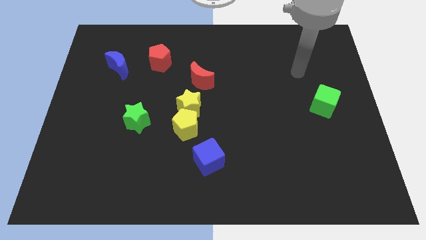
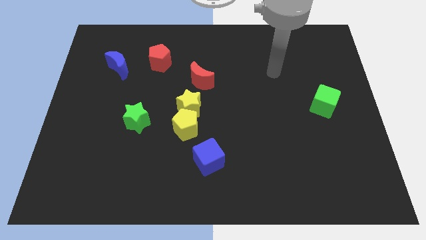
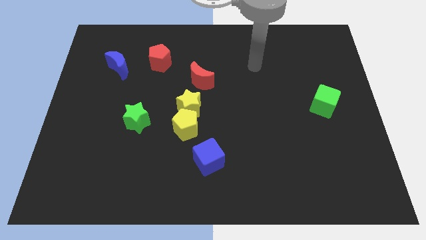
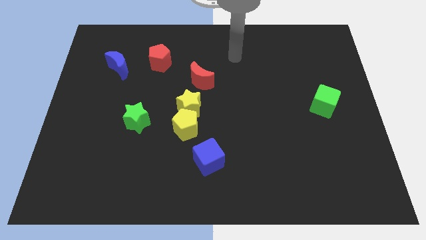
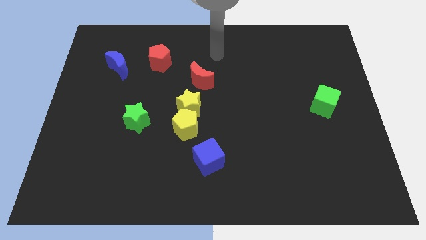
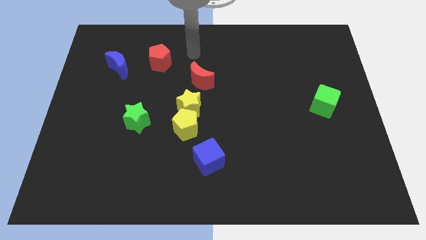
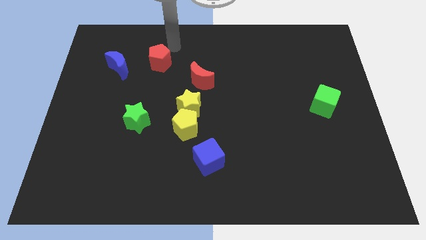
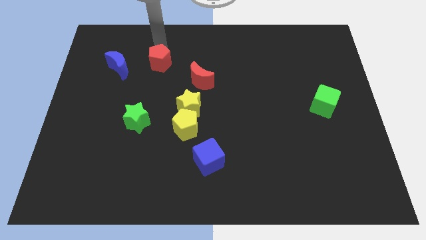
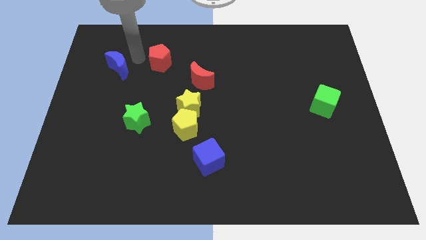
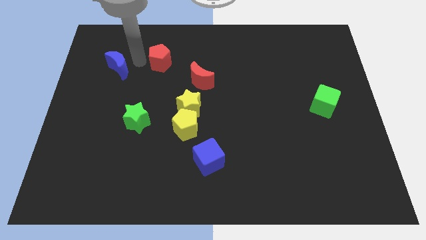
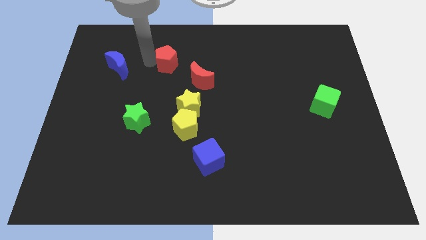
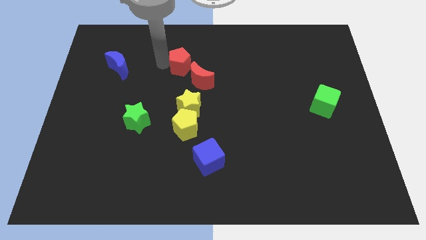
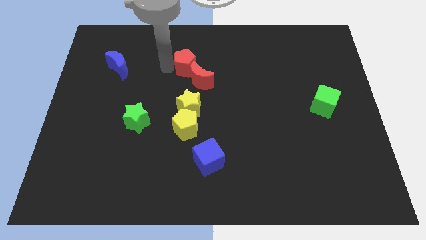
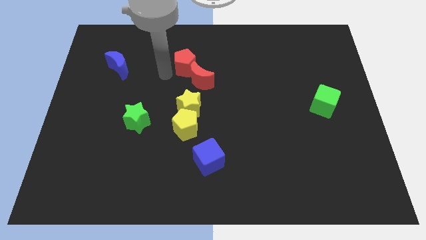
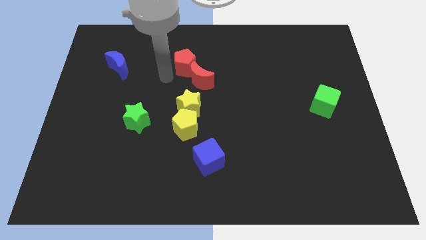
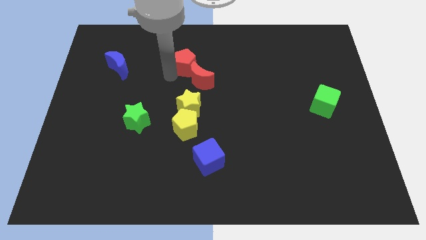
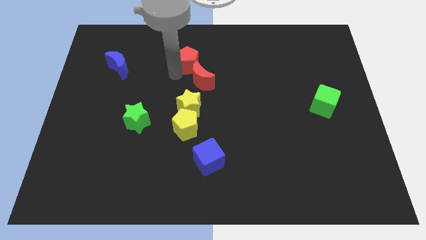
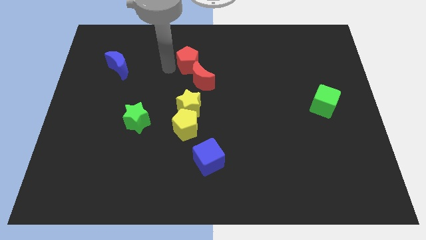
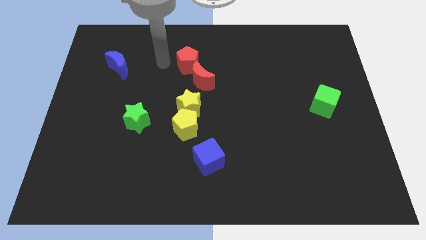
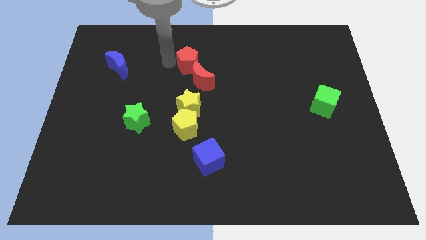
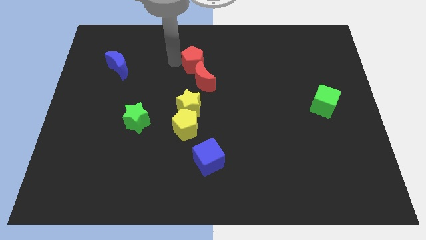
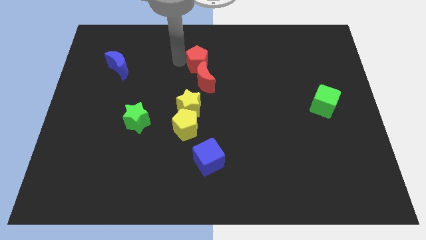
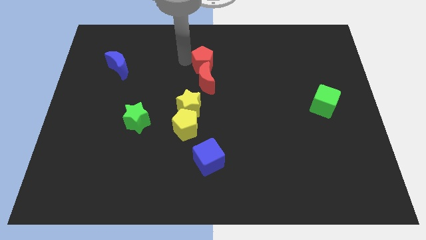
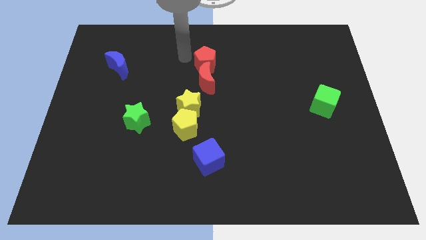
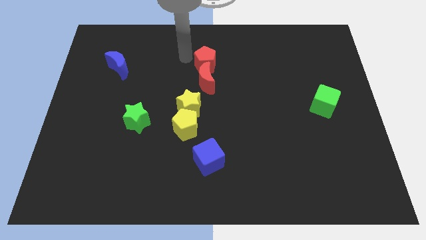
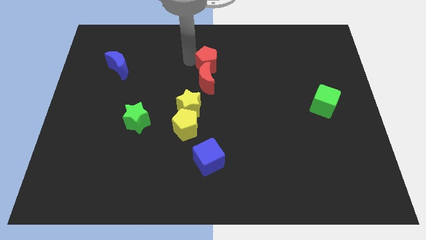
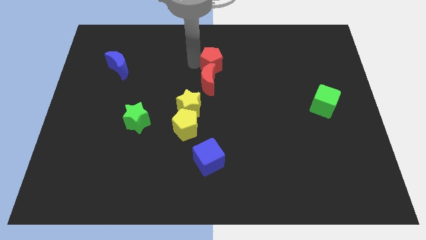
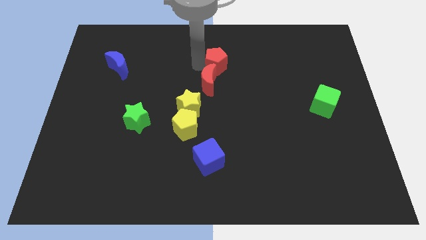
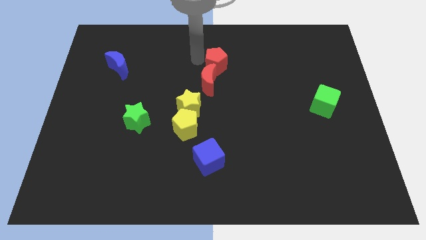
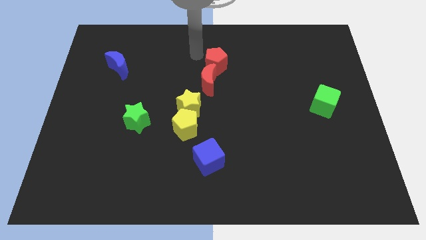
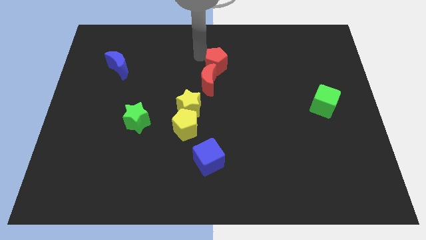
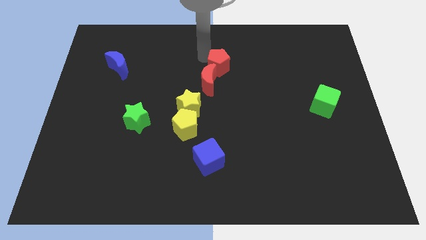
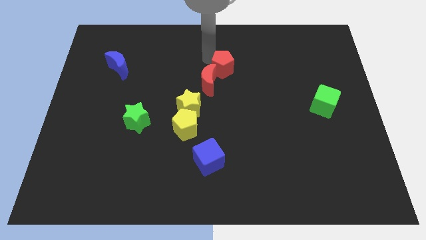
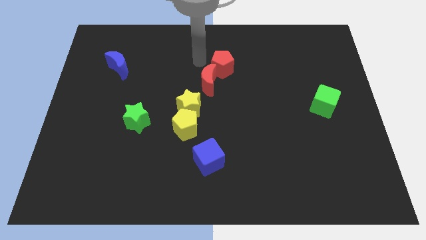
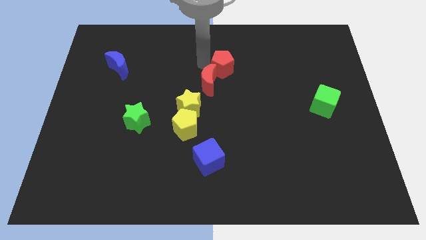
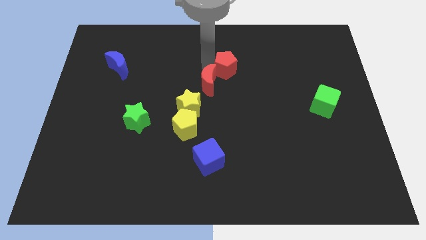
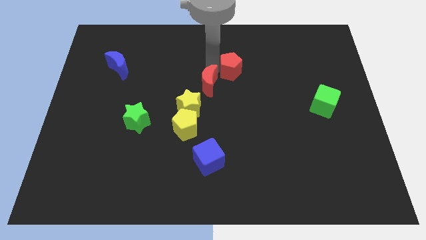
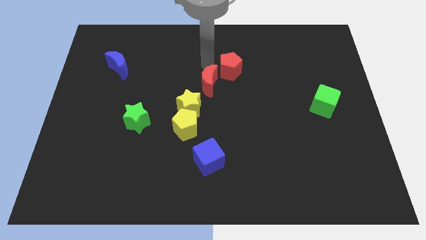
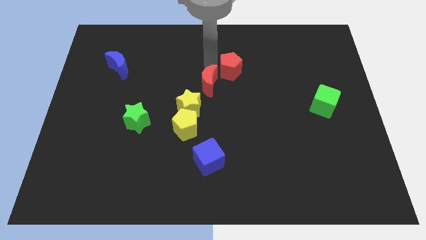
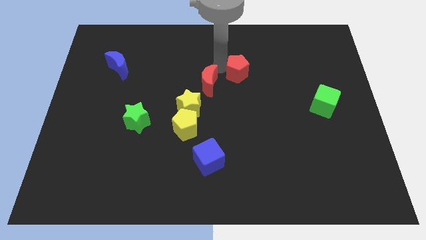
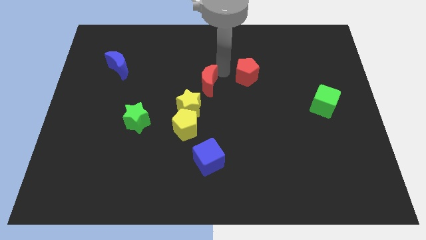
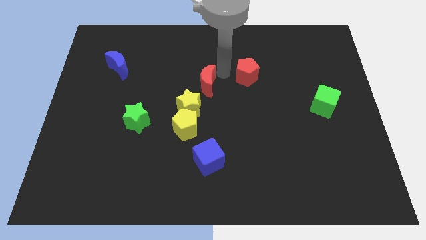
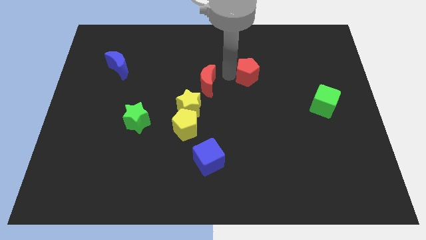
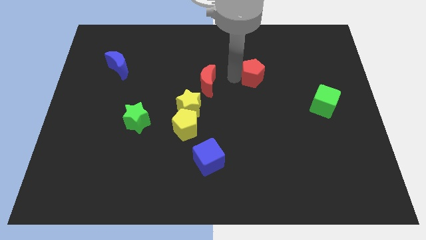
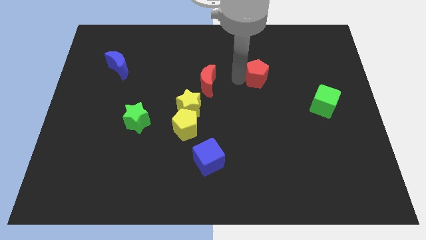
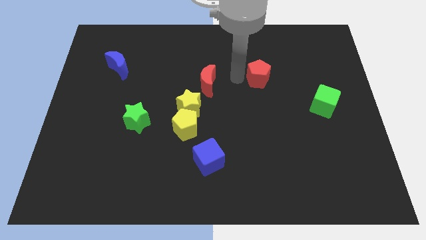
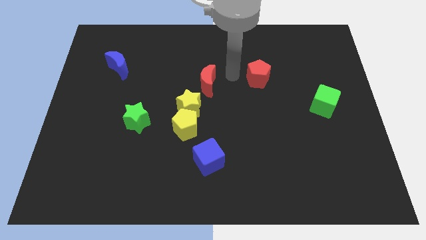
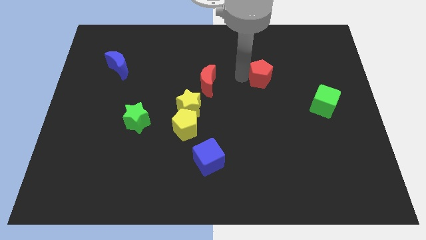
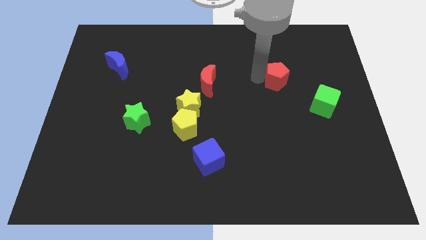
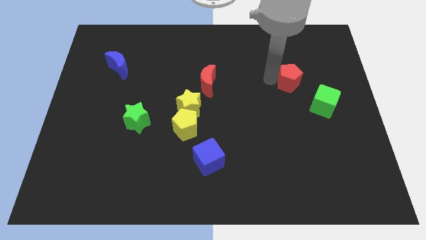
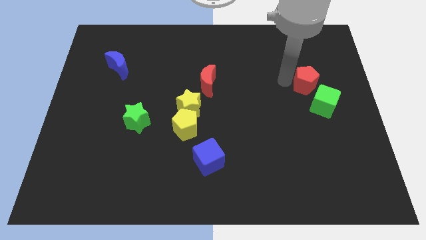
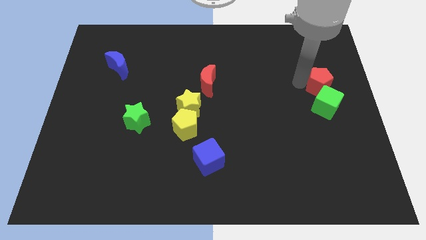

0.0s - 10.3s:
move the red pentagon to the right side

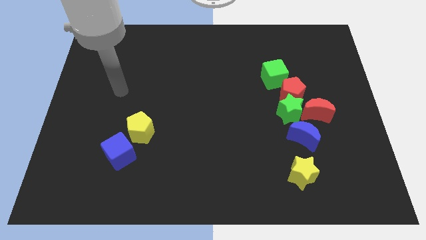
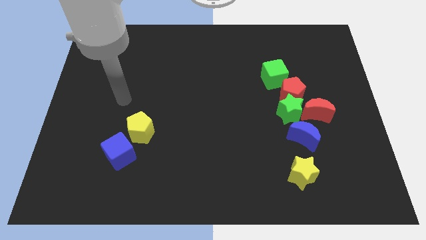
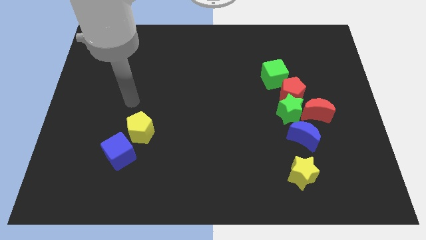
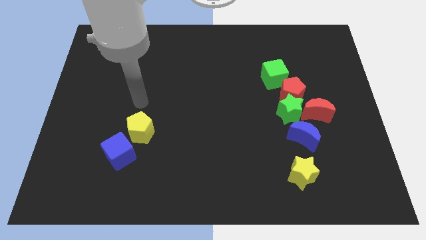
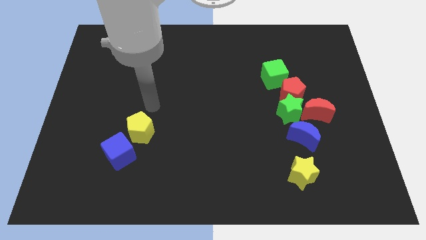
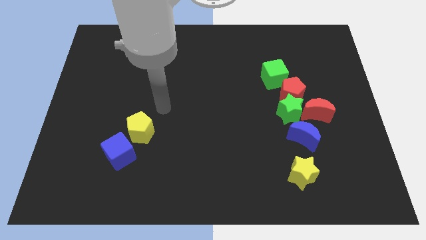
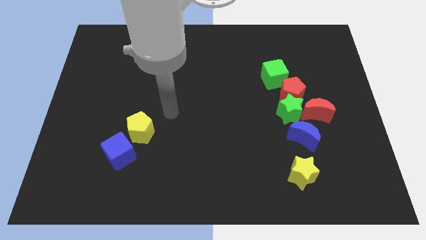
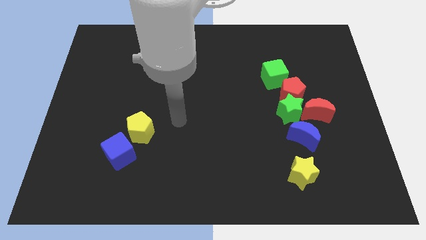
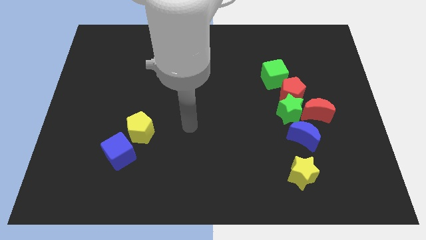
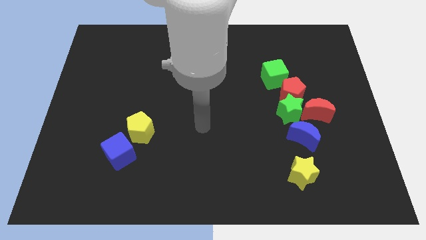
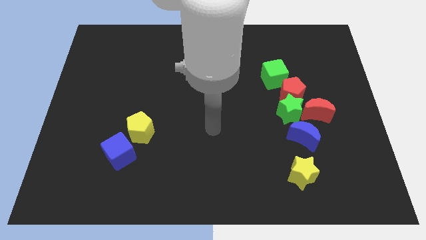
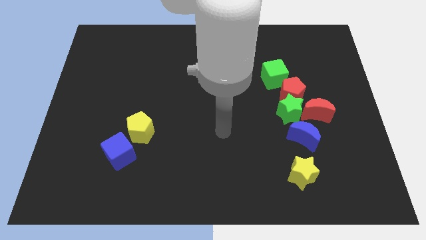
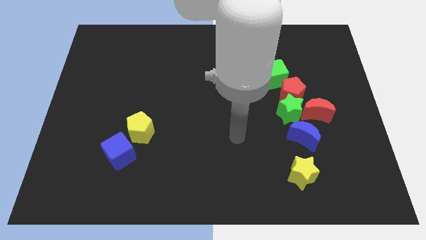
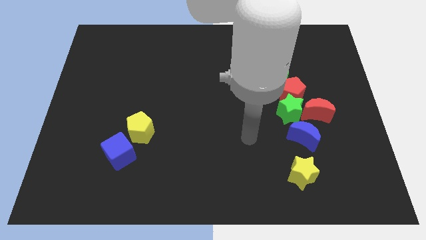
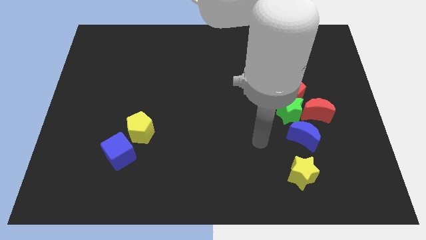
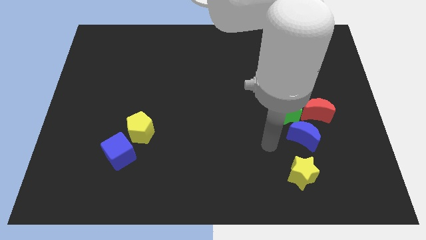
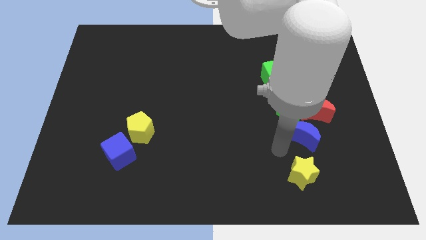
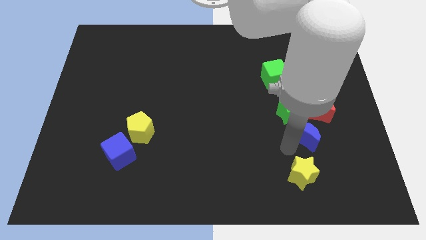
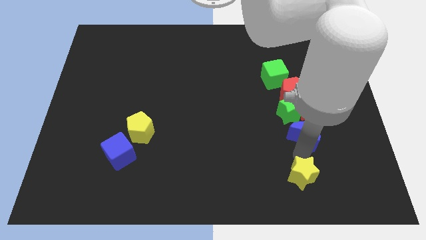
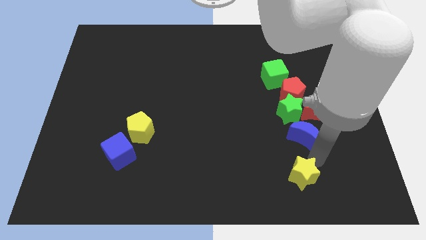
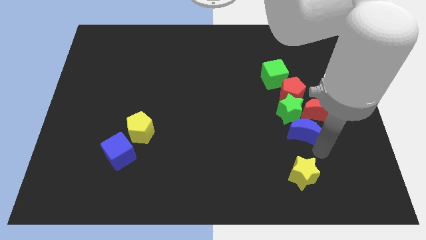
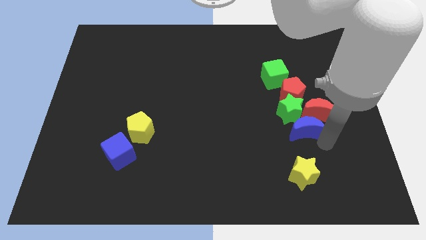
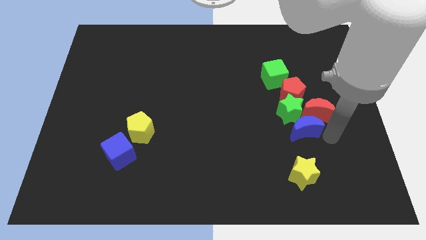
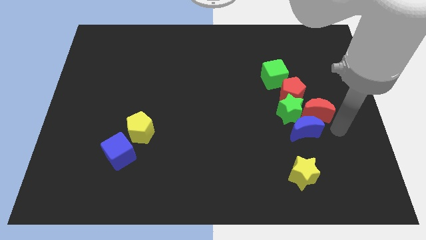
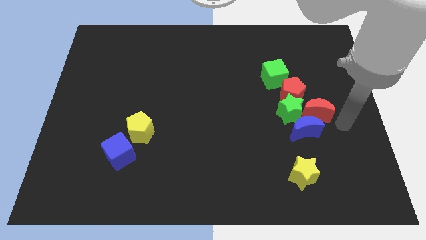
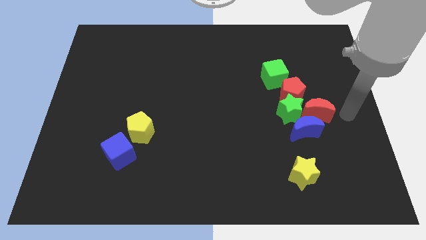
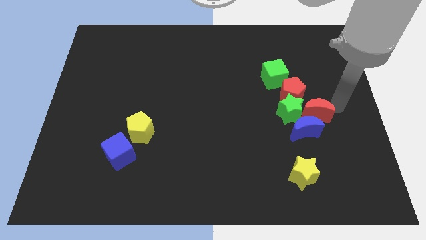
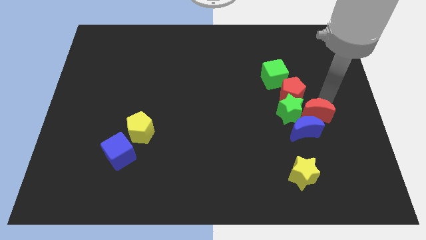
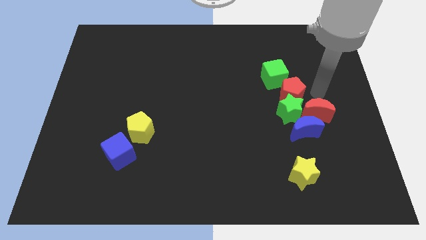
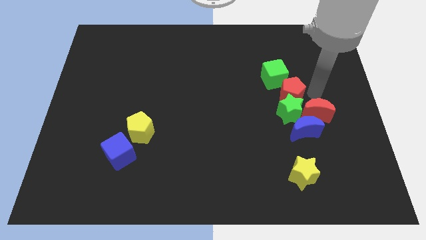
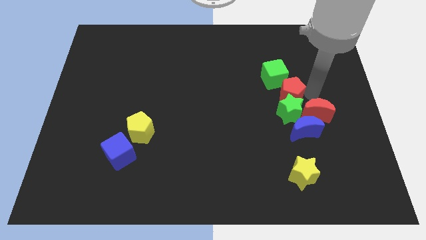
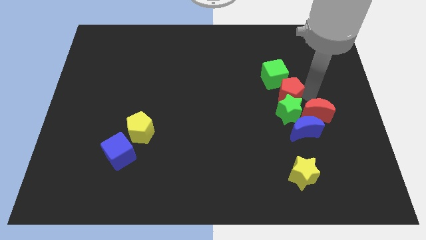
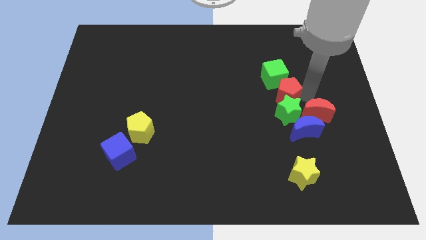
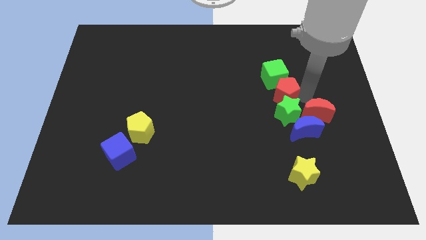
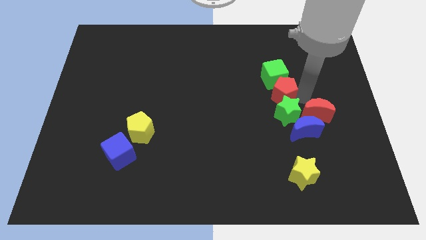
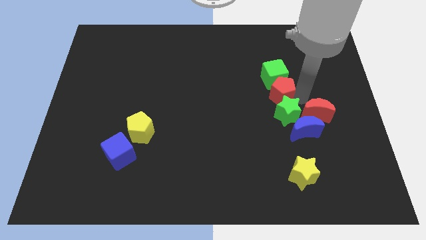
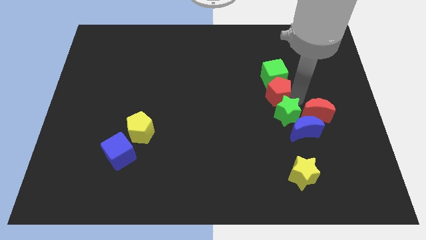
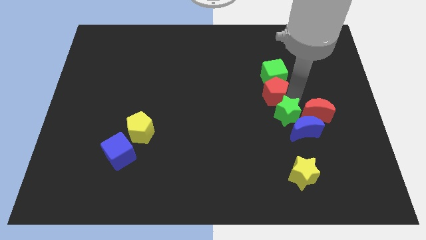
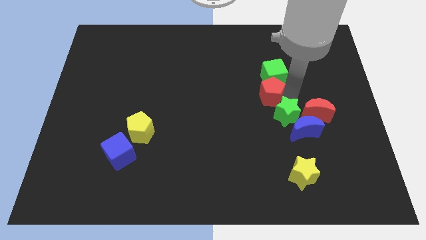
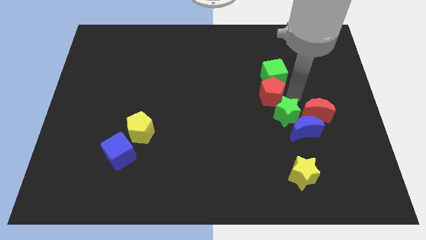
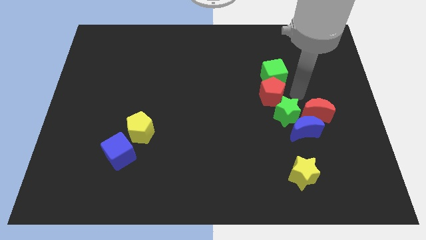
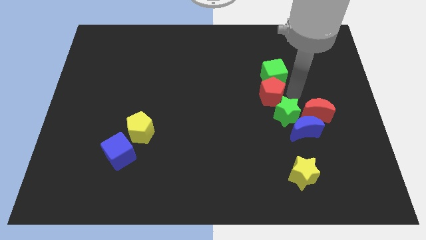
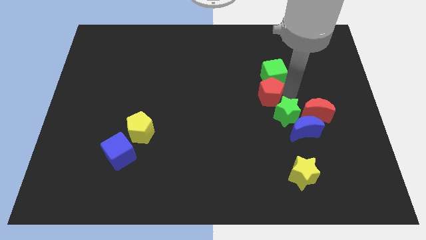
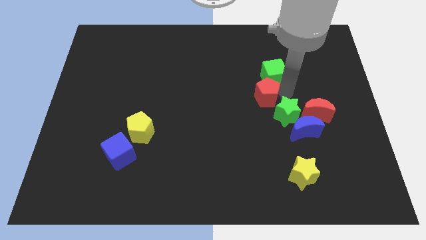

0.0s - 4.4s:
move the red pentagon to the center
